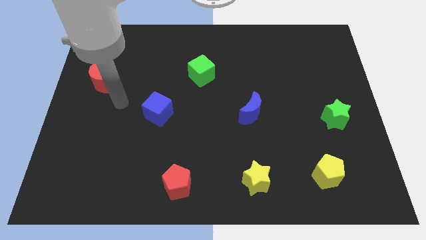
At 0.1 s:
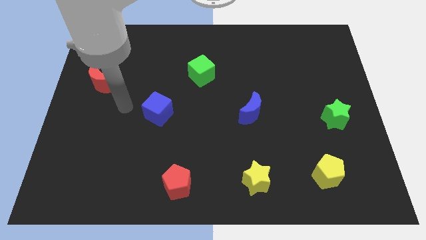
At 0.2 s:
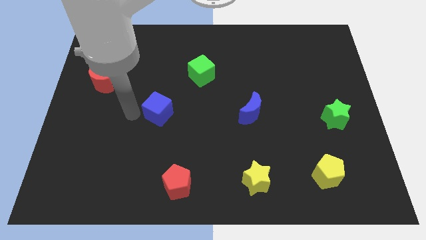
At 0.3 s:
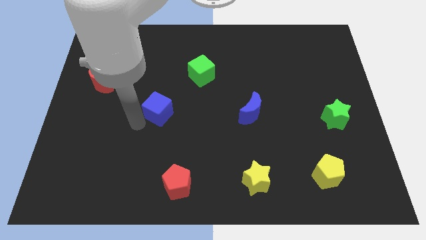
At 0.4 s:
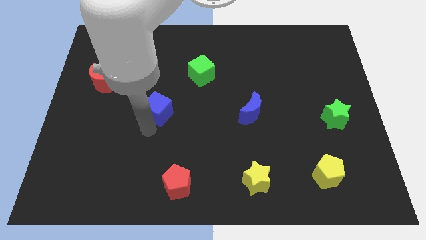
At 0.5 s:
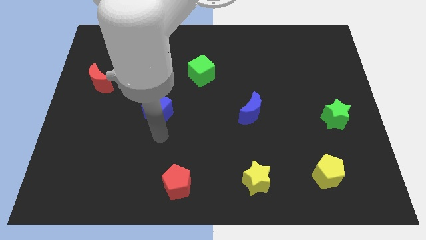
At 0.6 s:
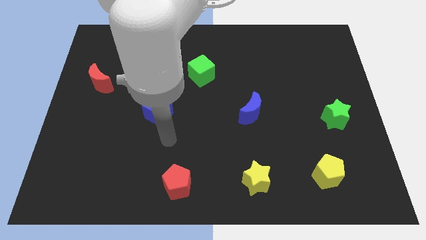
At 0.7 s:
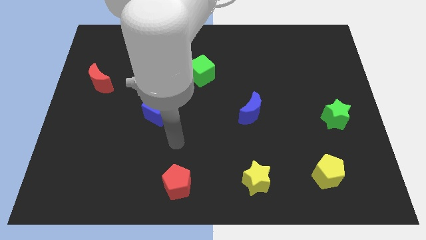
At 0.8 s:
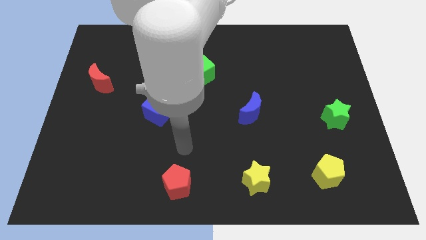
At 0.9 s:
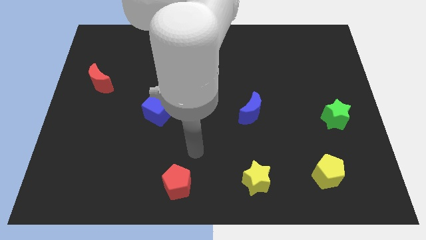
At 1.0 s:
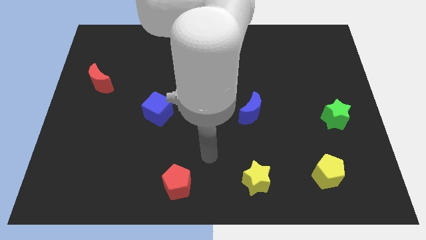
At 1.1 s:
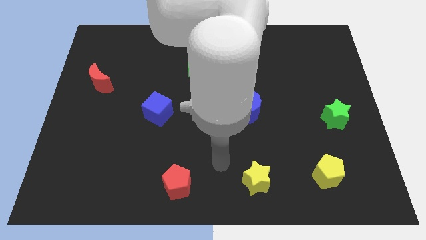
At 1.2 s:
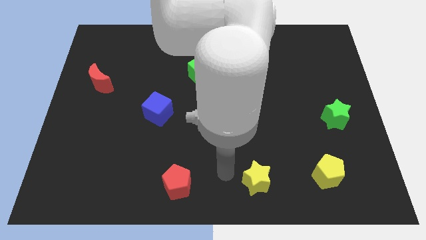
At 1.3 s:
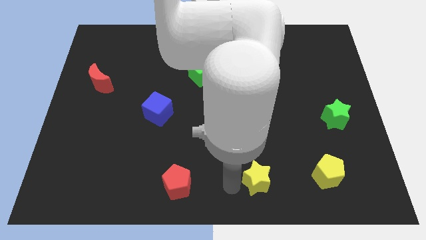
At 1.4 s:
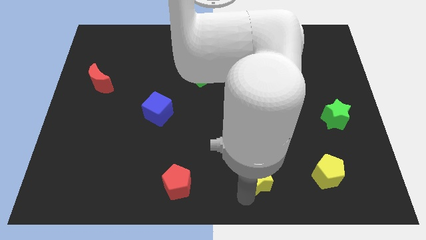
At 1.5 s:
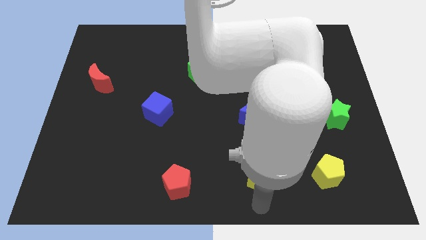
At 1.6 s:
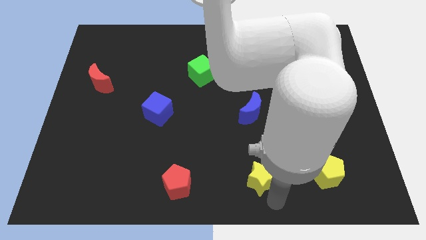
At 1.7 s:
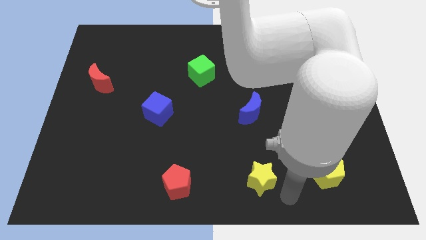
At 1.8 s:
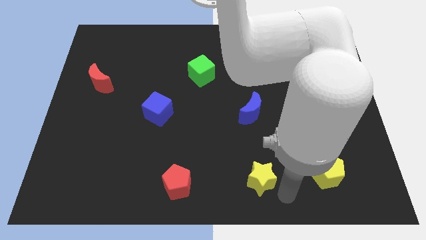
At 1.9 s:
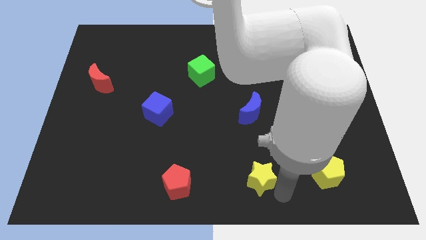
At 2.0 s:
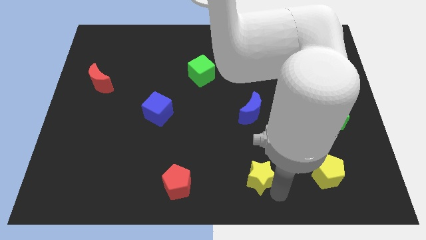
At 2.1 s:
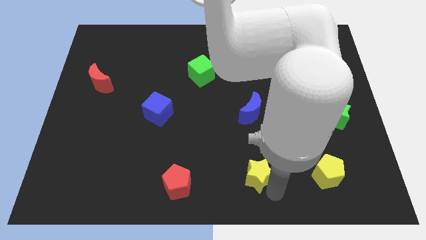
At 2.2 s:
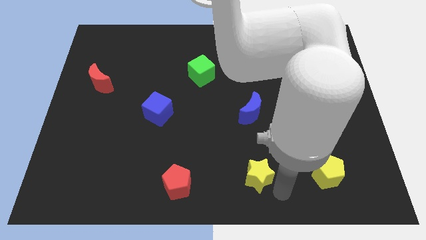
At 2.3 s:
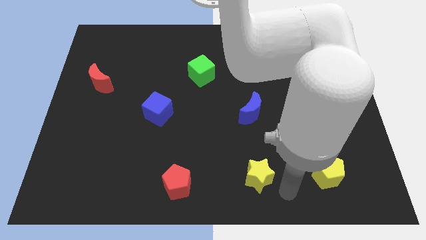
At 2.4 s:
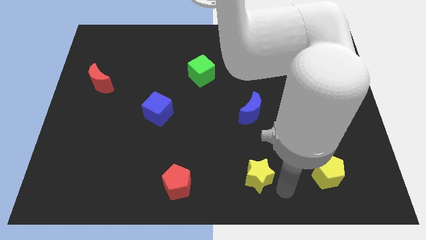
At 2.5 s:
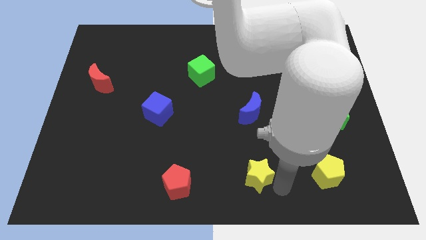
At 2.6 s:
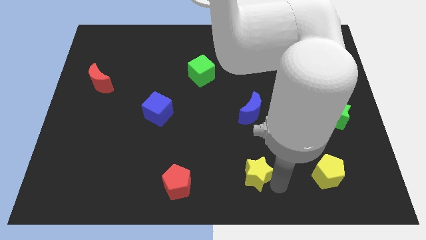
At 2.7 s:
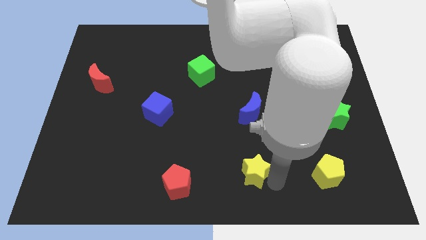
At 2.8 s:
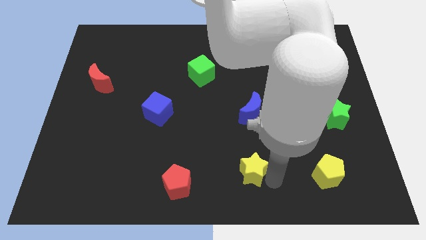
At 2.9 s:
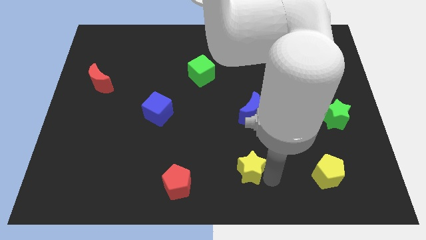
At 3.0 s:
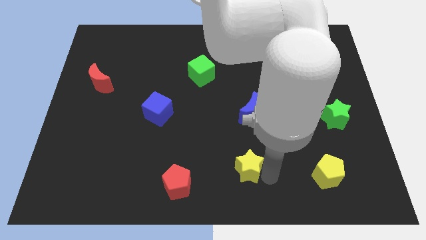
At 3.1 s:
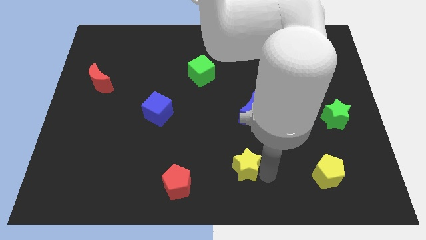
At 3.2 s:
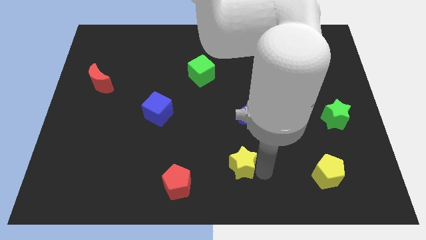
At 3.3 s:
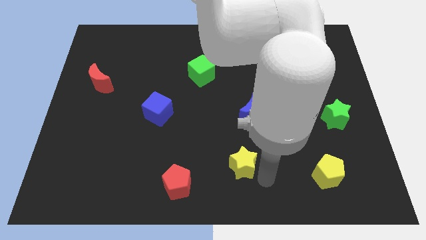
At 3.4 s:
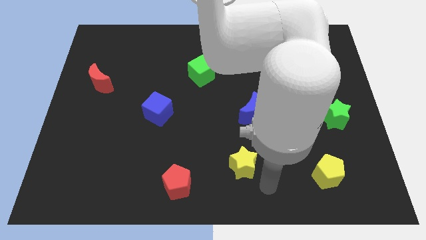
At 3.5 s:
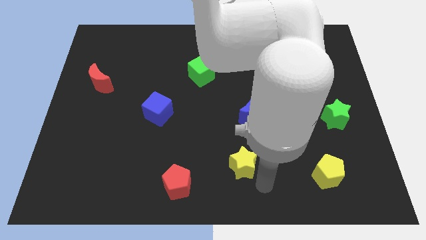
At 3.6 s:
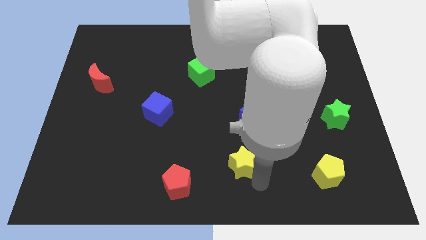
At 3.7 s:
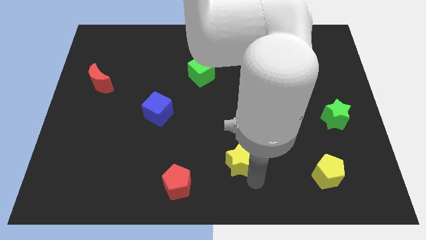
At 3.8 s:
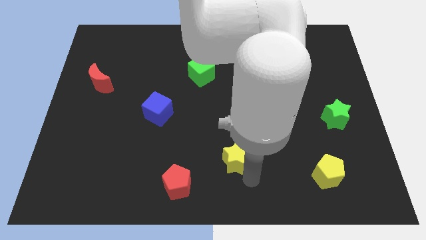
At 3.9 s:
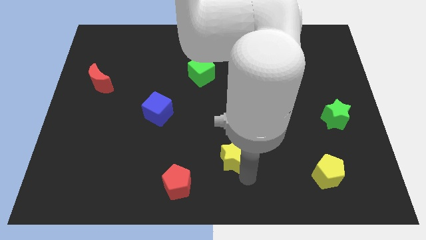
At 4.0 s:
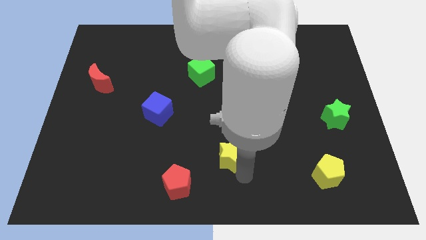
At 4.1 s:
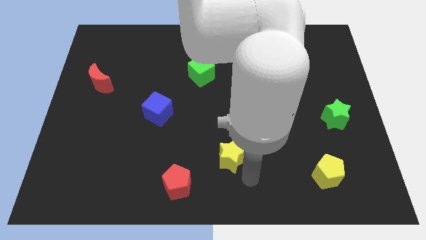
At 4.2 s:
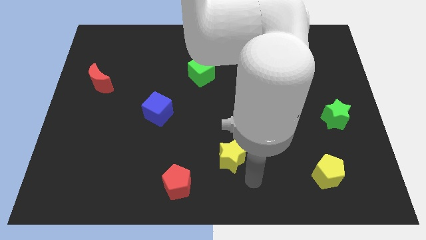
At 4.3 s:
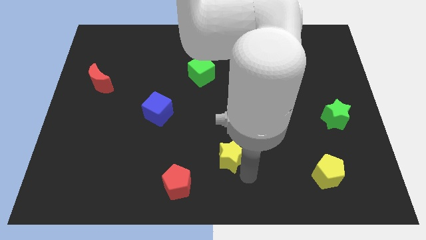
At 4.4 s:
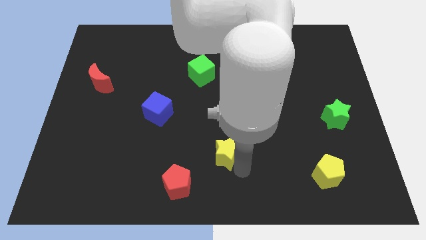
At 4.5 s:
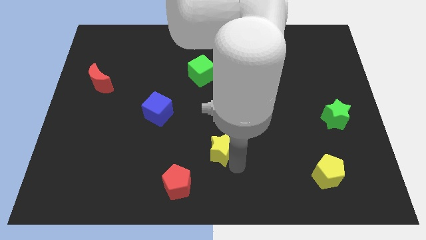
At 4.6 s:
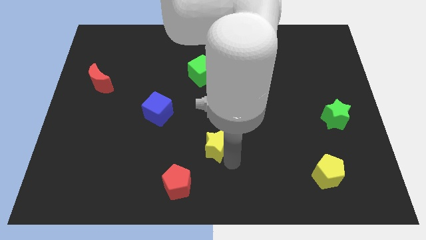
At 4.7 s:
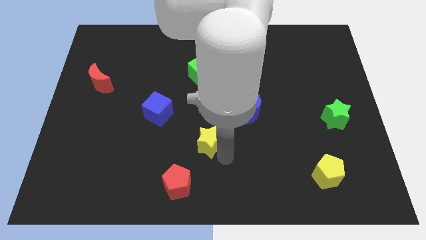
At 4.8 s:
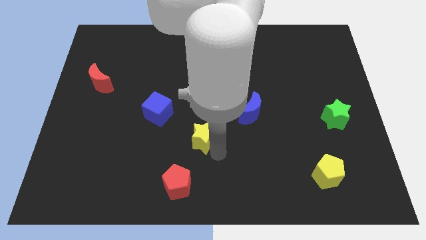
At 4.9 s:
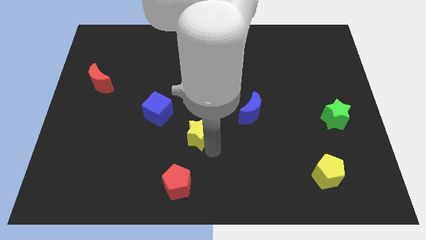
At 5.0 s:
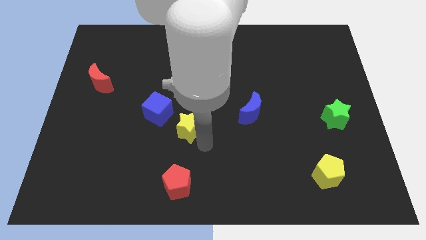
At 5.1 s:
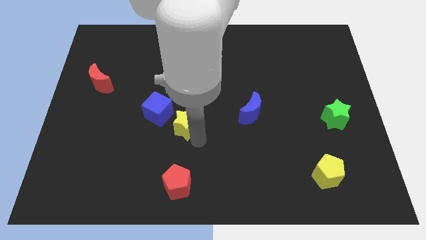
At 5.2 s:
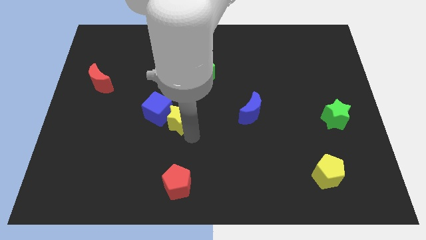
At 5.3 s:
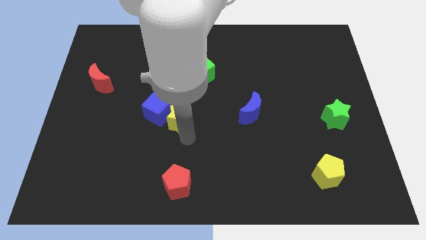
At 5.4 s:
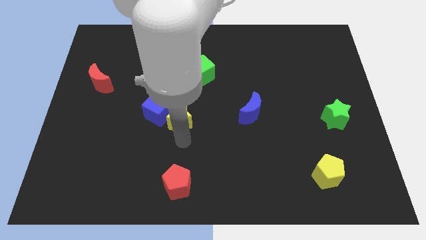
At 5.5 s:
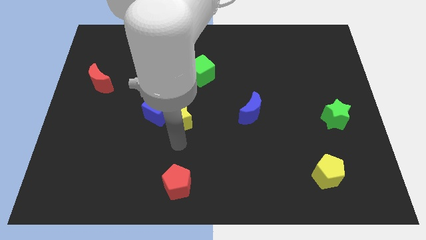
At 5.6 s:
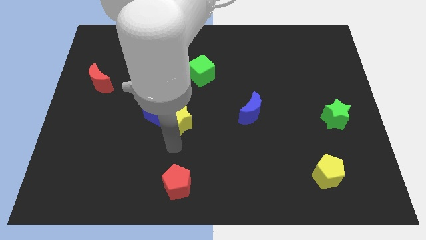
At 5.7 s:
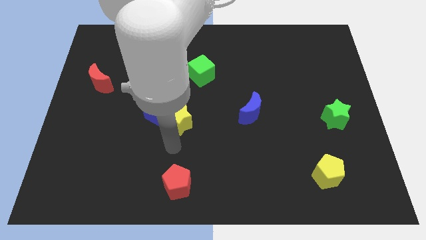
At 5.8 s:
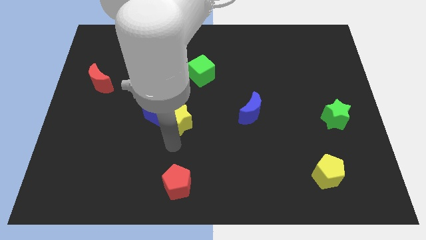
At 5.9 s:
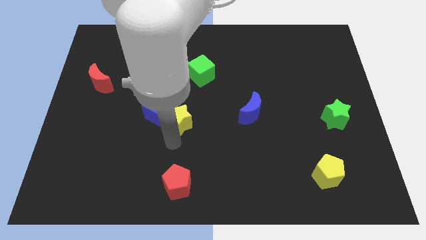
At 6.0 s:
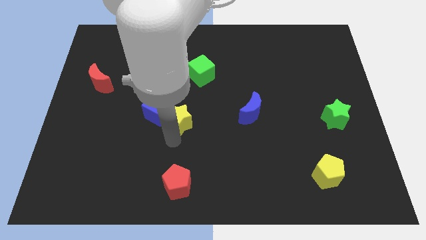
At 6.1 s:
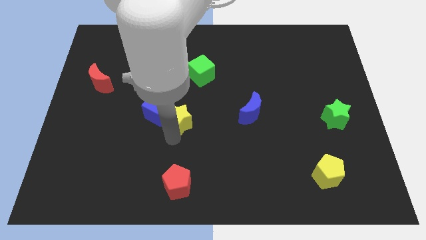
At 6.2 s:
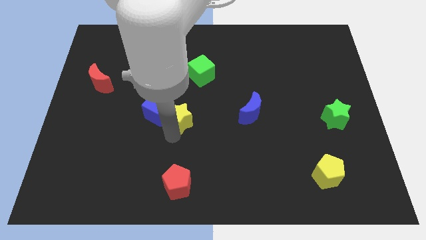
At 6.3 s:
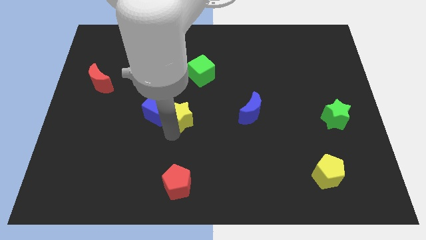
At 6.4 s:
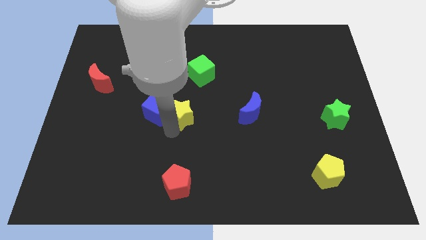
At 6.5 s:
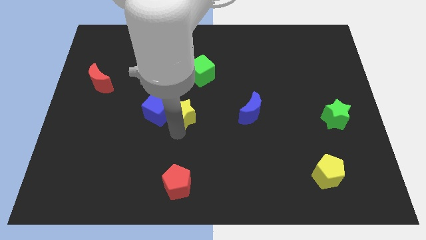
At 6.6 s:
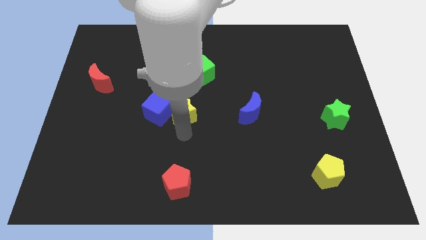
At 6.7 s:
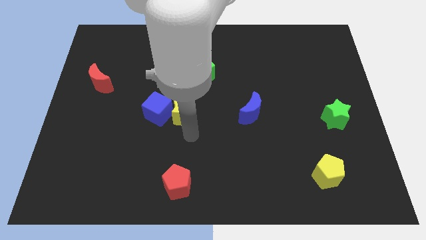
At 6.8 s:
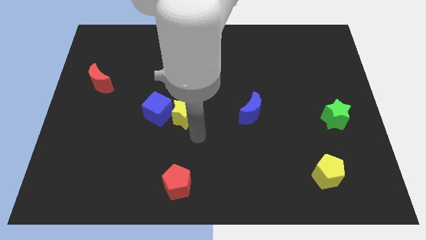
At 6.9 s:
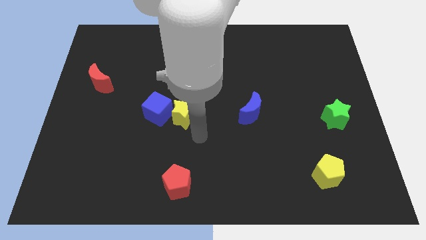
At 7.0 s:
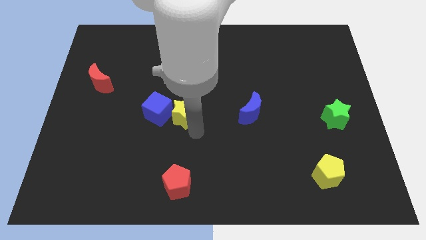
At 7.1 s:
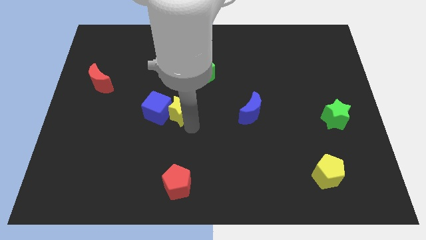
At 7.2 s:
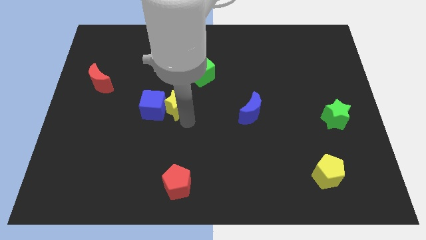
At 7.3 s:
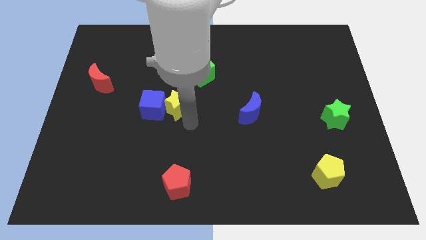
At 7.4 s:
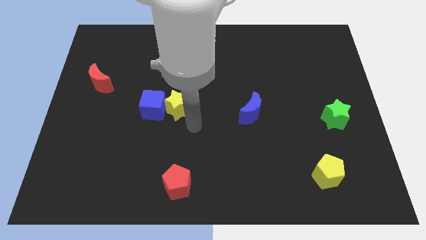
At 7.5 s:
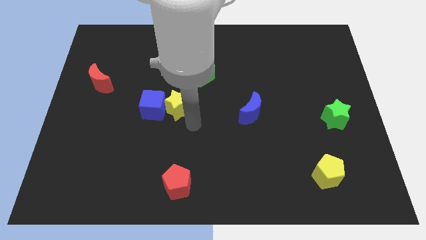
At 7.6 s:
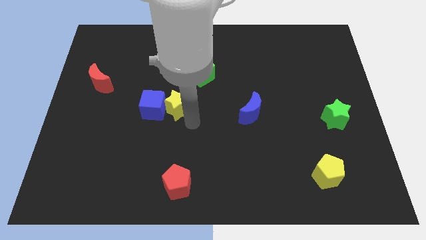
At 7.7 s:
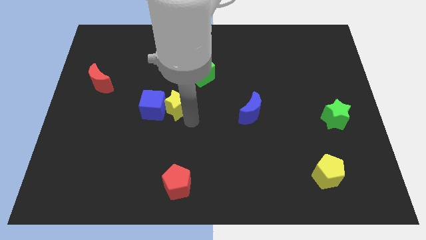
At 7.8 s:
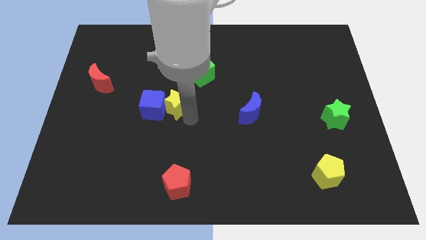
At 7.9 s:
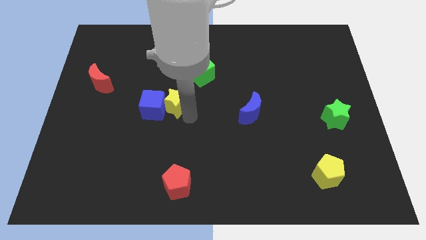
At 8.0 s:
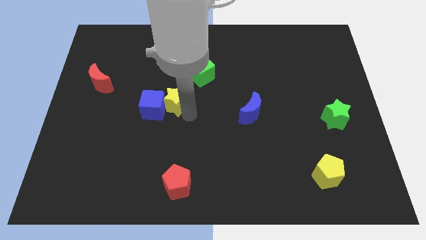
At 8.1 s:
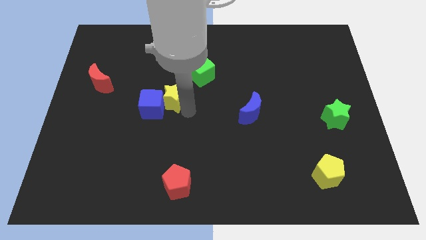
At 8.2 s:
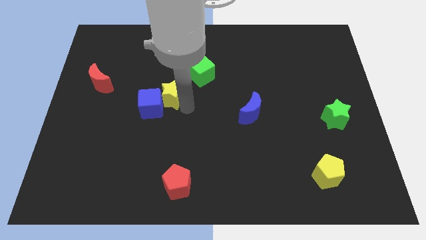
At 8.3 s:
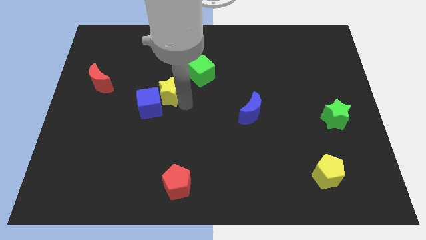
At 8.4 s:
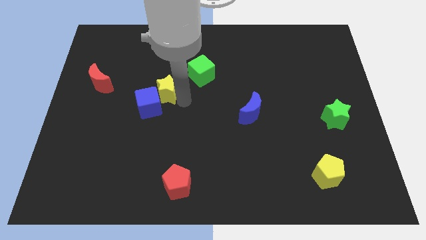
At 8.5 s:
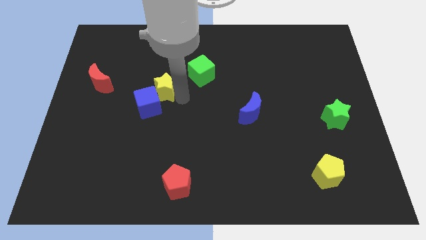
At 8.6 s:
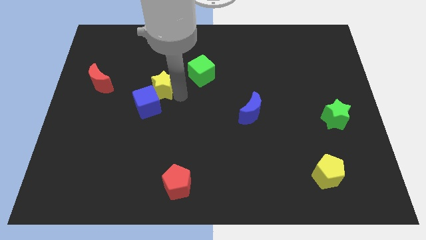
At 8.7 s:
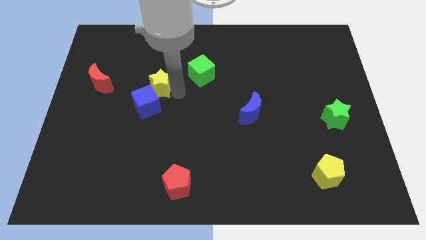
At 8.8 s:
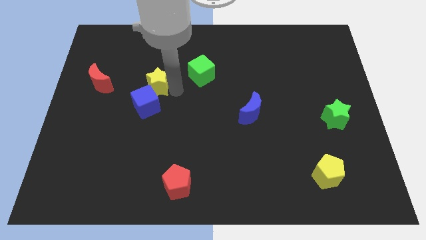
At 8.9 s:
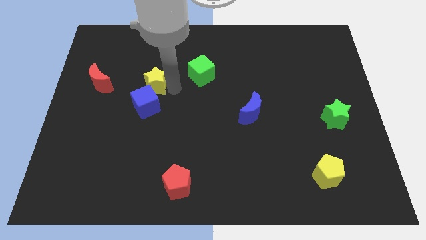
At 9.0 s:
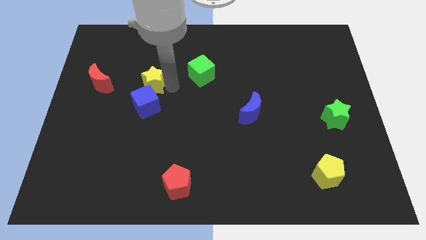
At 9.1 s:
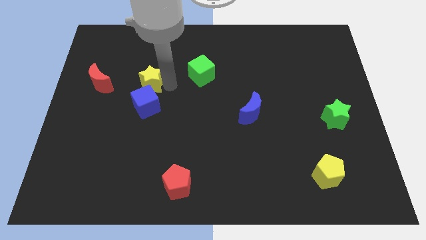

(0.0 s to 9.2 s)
slide the yellow star to the top left side of the blue cube
